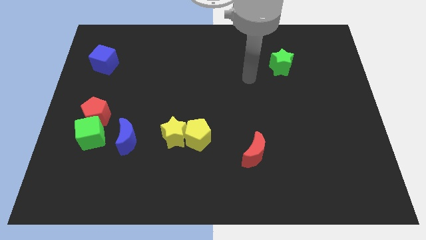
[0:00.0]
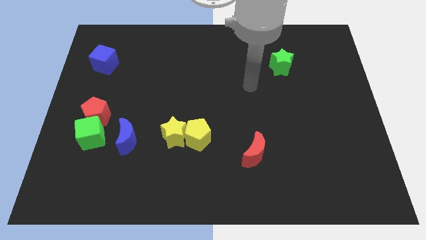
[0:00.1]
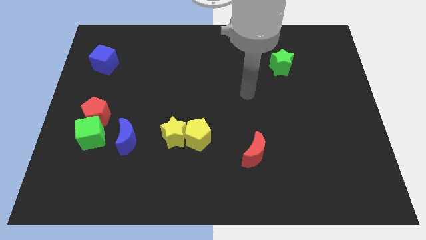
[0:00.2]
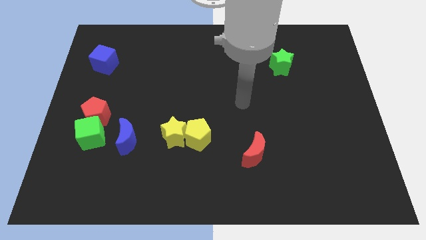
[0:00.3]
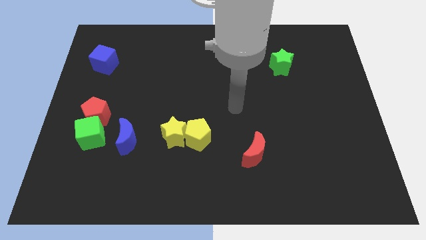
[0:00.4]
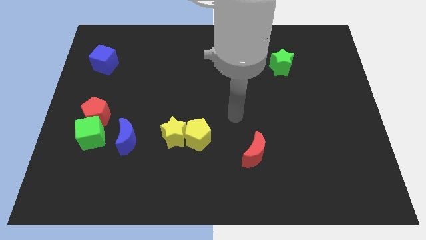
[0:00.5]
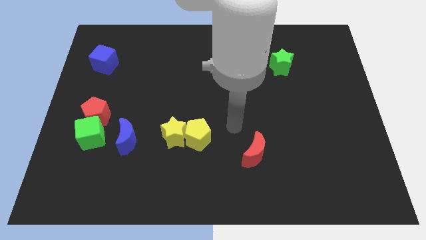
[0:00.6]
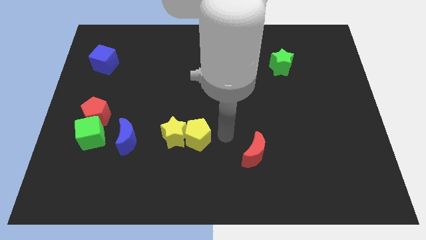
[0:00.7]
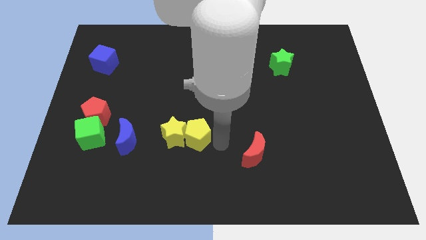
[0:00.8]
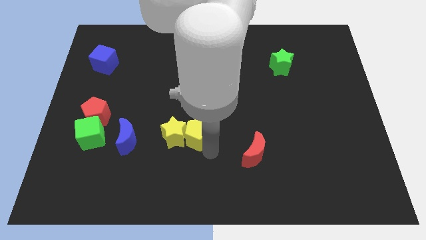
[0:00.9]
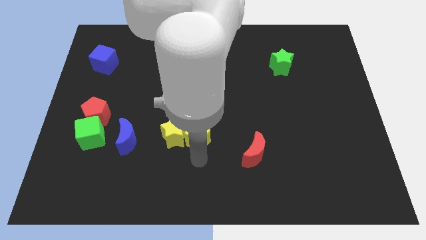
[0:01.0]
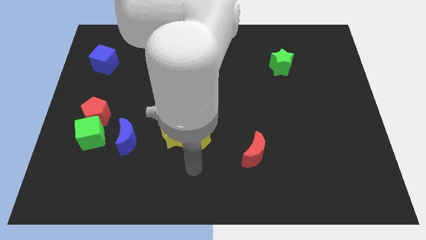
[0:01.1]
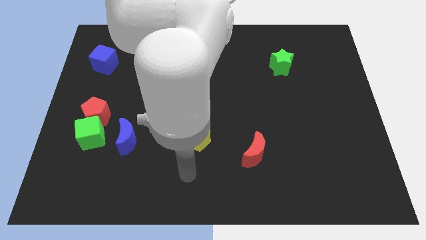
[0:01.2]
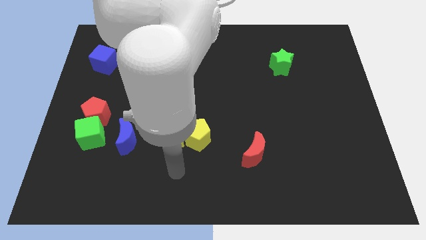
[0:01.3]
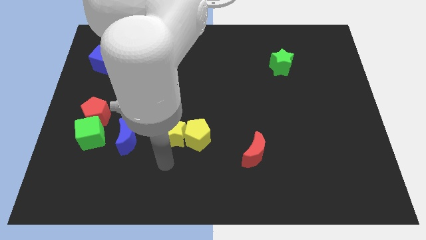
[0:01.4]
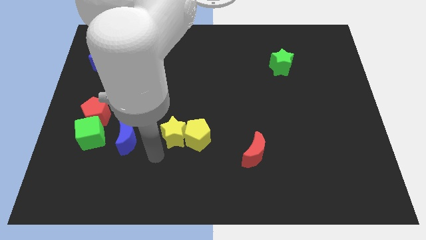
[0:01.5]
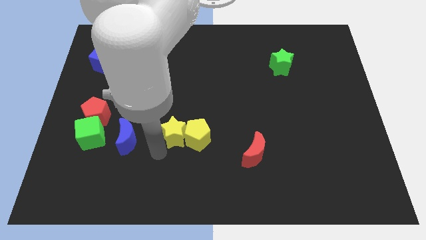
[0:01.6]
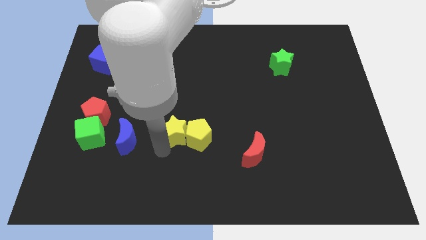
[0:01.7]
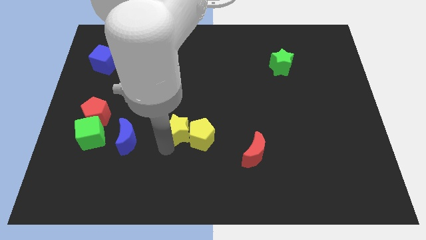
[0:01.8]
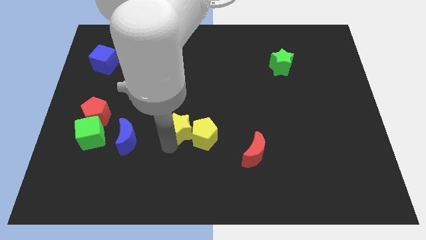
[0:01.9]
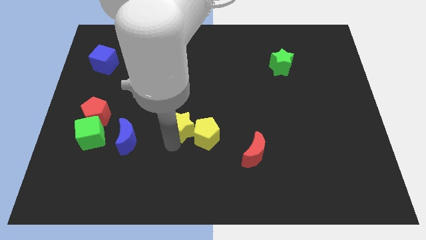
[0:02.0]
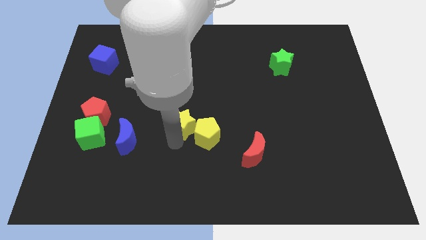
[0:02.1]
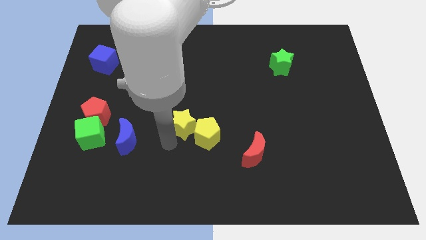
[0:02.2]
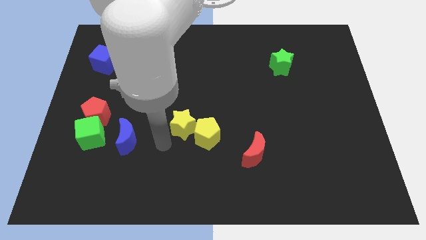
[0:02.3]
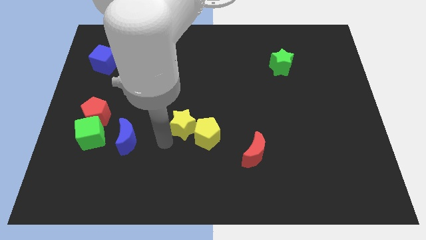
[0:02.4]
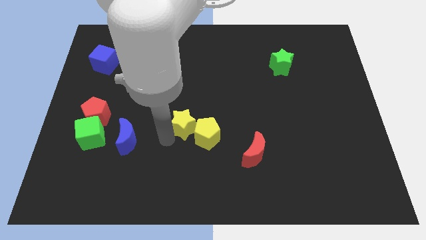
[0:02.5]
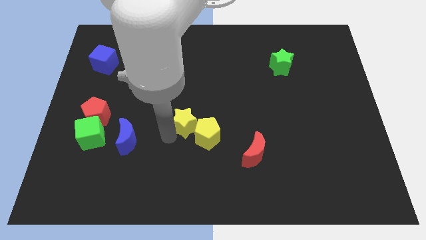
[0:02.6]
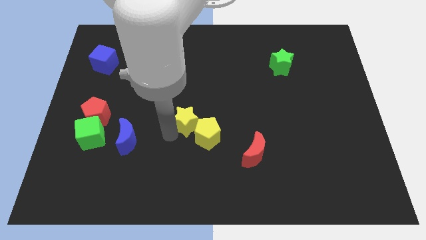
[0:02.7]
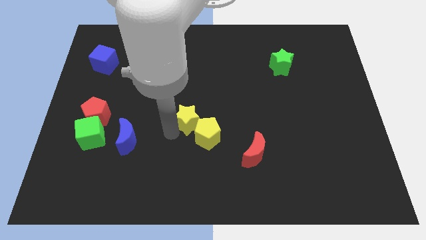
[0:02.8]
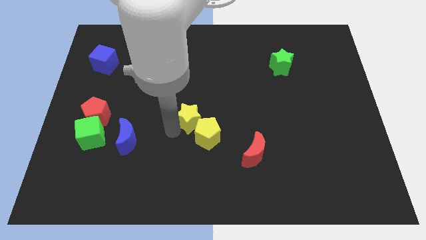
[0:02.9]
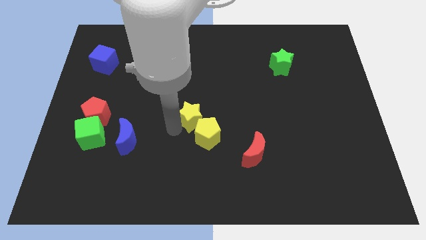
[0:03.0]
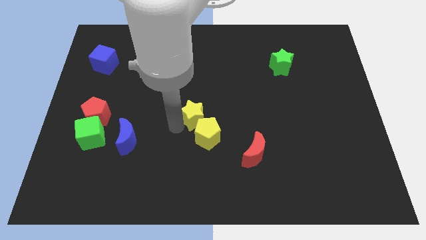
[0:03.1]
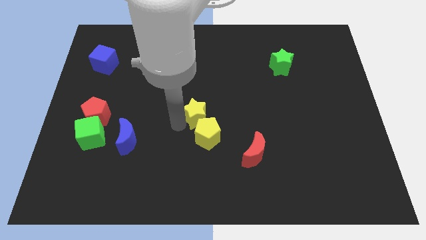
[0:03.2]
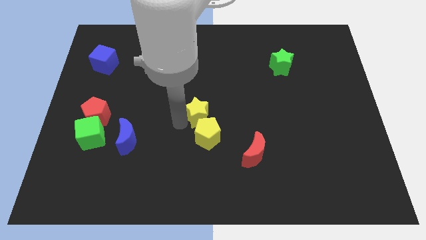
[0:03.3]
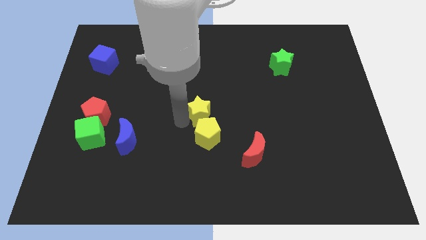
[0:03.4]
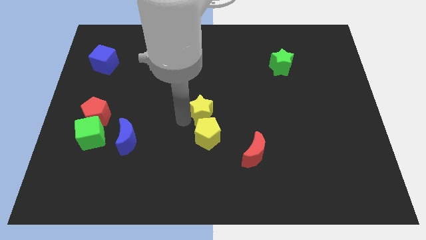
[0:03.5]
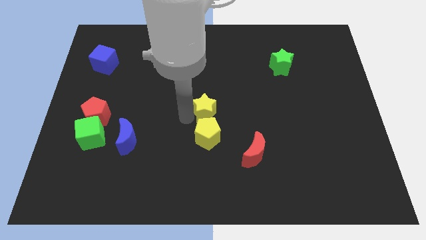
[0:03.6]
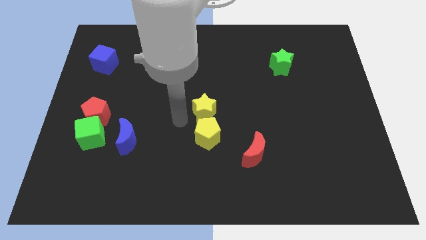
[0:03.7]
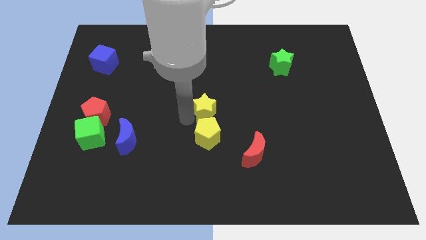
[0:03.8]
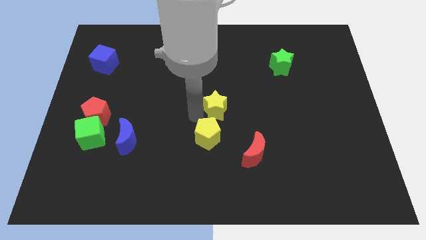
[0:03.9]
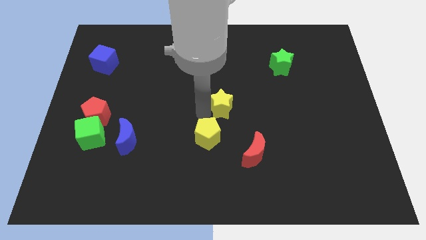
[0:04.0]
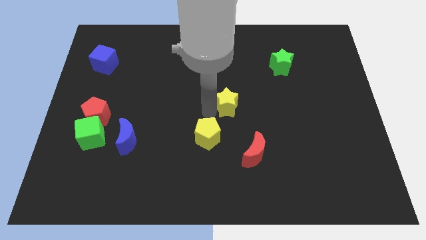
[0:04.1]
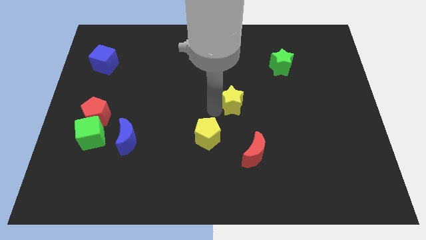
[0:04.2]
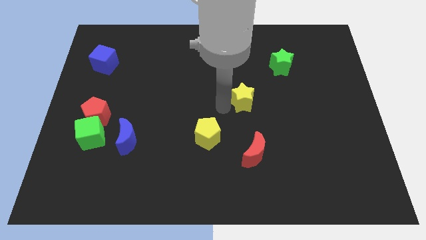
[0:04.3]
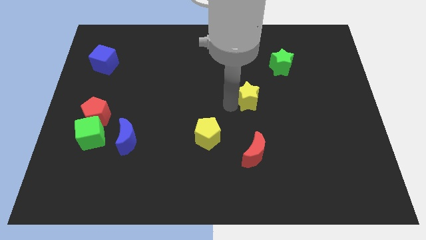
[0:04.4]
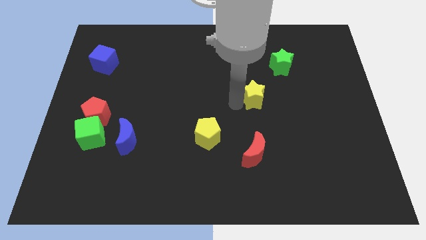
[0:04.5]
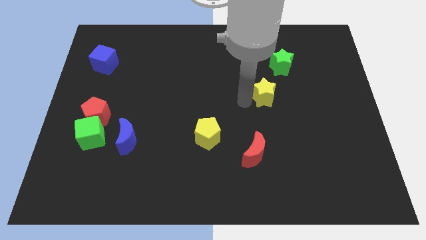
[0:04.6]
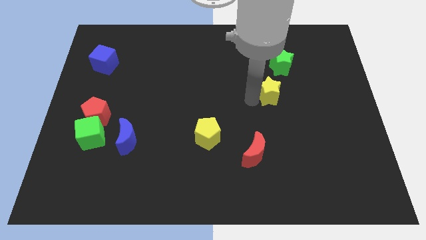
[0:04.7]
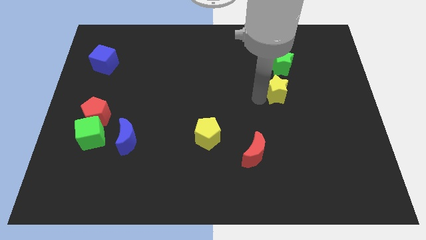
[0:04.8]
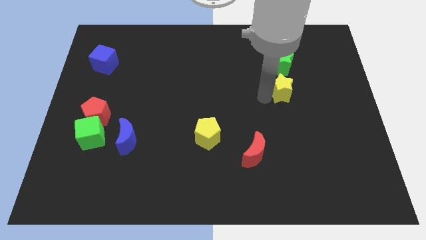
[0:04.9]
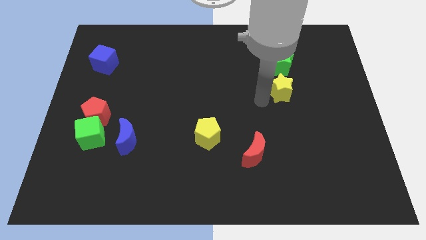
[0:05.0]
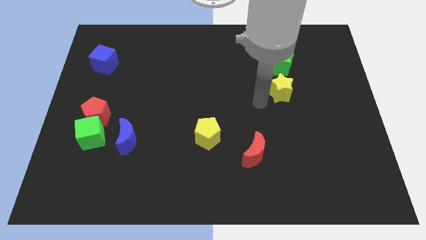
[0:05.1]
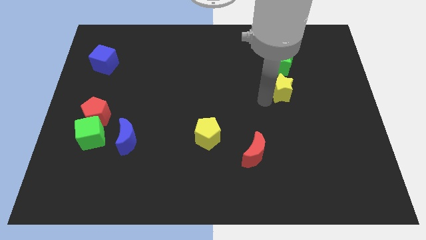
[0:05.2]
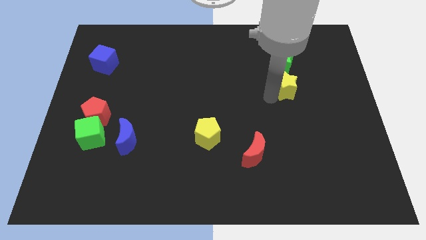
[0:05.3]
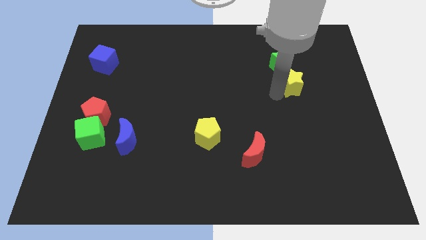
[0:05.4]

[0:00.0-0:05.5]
push the yellow star to the bottom right side of the green star

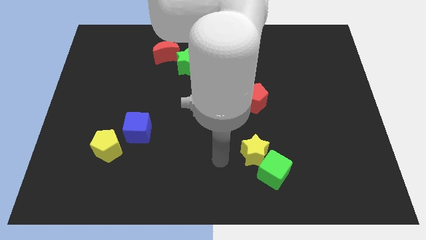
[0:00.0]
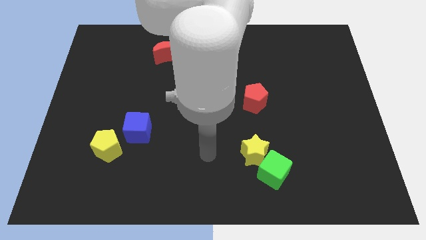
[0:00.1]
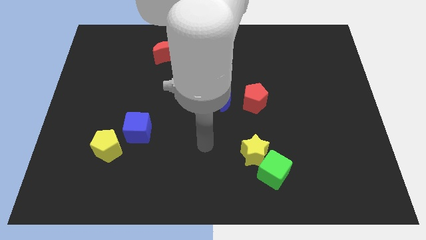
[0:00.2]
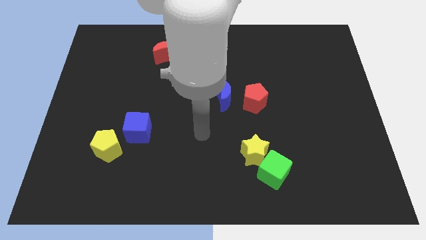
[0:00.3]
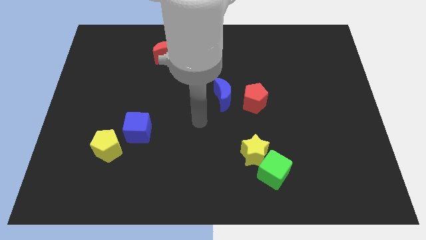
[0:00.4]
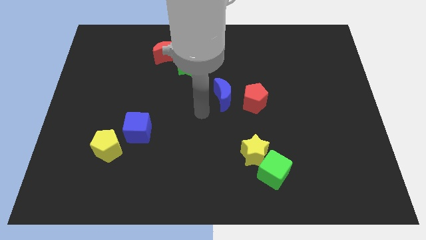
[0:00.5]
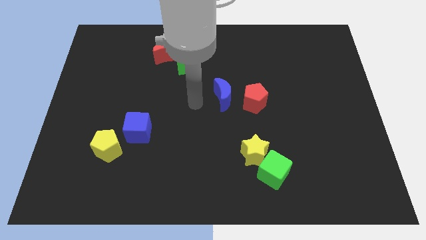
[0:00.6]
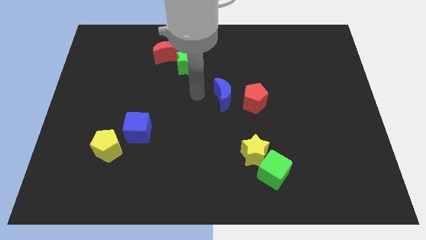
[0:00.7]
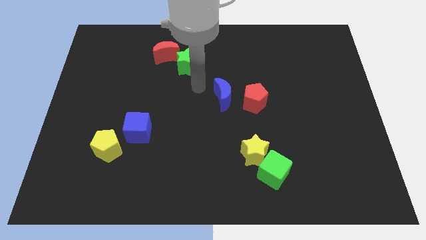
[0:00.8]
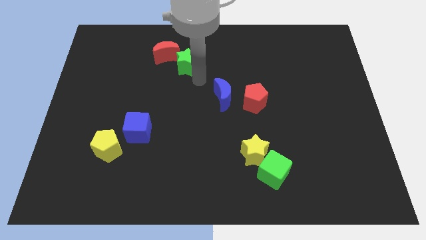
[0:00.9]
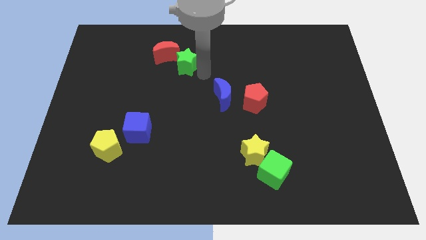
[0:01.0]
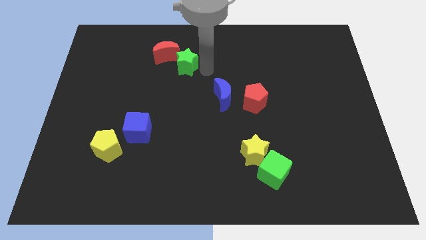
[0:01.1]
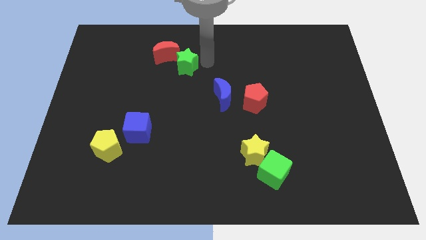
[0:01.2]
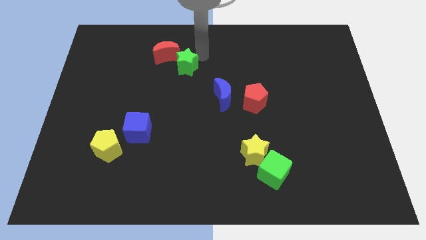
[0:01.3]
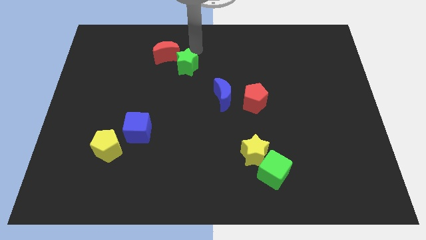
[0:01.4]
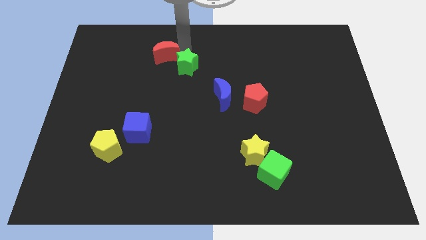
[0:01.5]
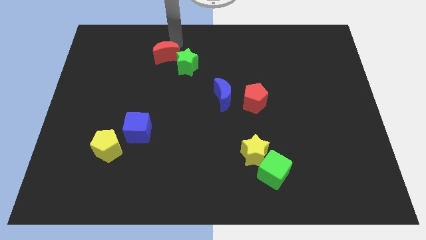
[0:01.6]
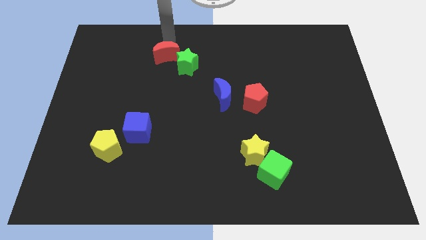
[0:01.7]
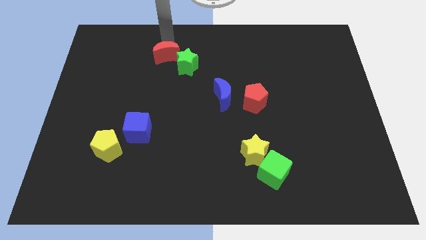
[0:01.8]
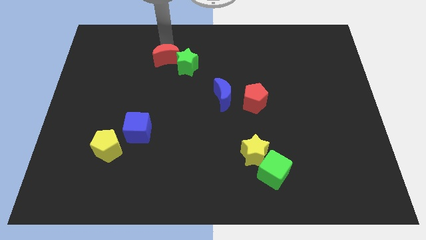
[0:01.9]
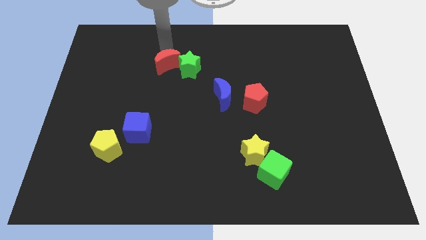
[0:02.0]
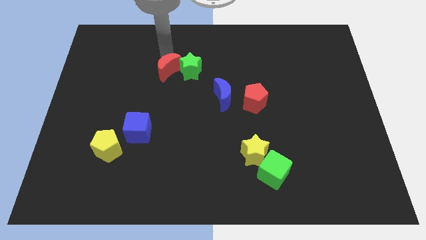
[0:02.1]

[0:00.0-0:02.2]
put the red moon diagonally down and to the left of the green star
